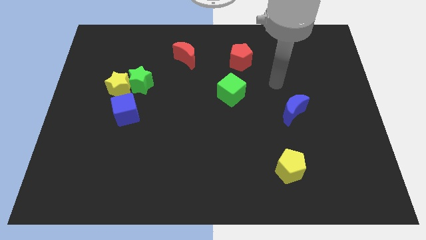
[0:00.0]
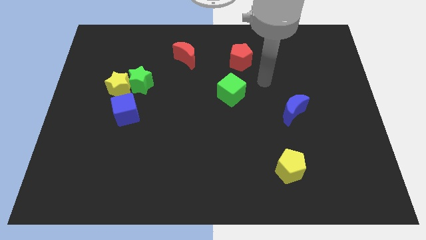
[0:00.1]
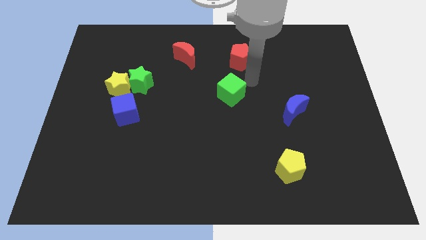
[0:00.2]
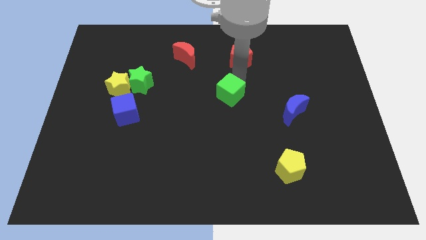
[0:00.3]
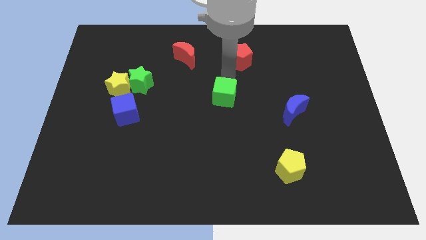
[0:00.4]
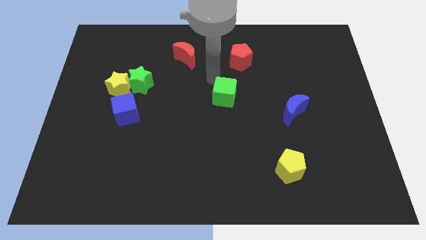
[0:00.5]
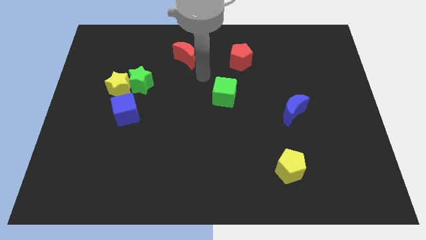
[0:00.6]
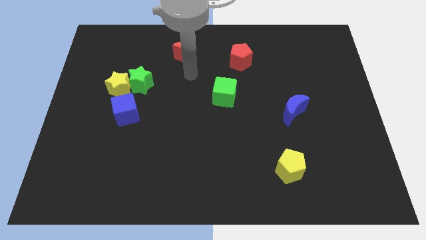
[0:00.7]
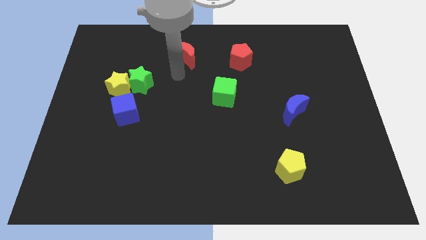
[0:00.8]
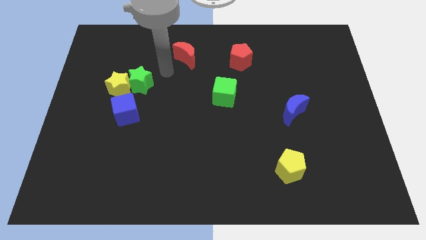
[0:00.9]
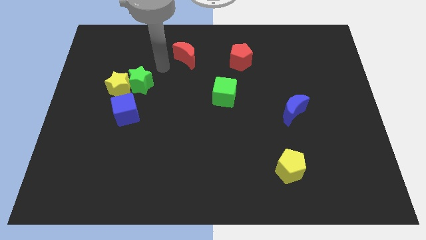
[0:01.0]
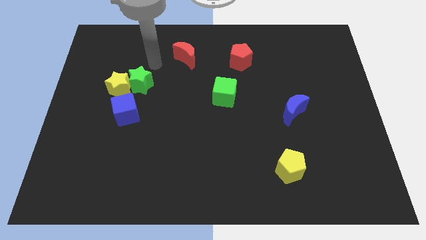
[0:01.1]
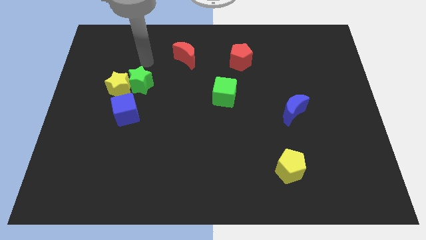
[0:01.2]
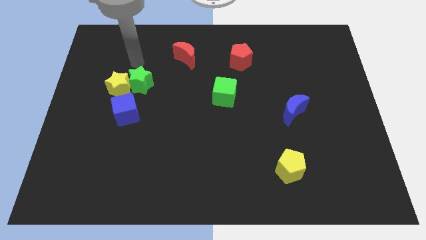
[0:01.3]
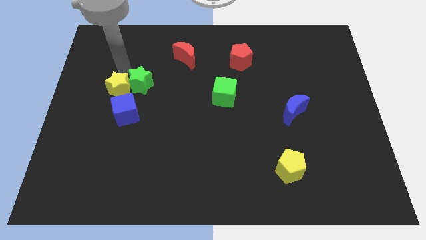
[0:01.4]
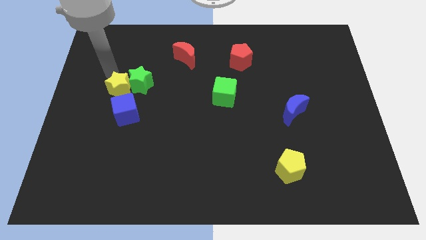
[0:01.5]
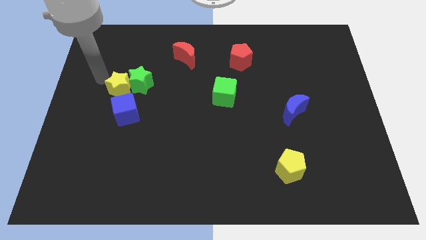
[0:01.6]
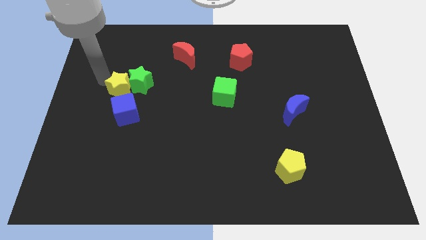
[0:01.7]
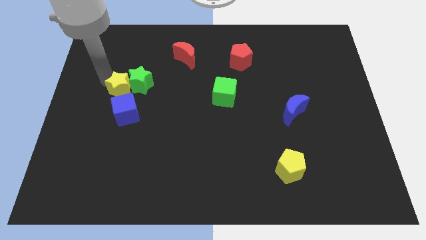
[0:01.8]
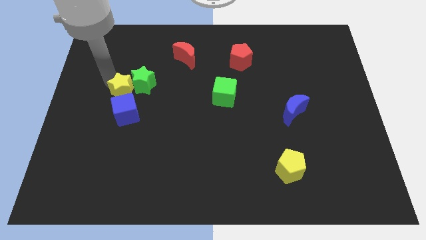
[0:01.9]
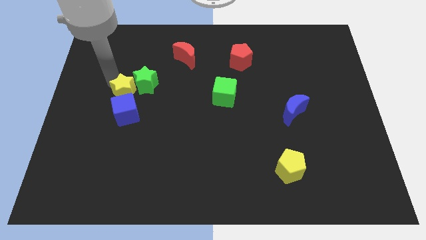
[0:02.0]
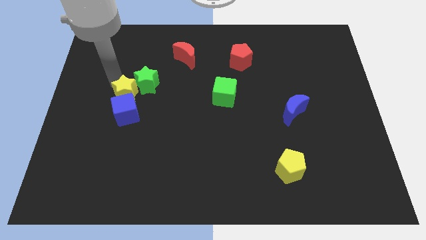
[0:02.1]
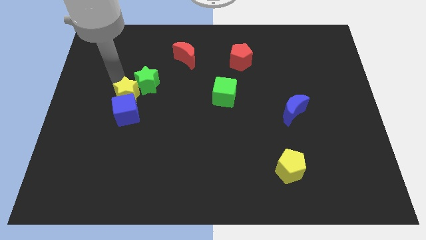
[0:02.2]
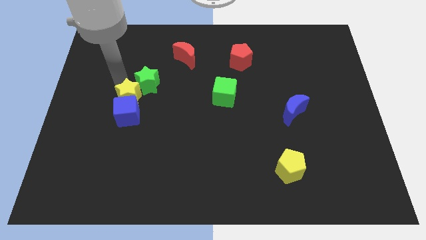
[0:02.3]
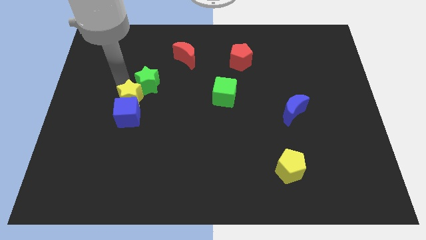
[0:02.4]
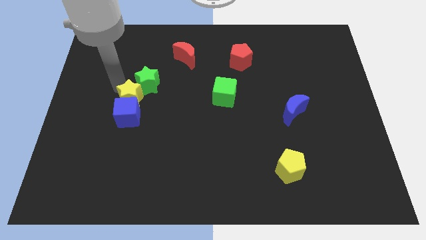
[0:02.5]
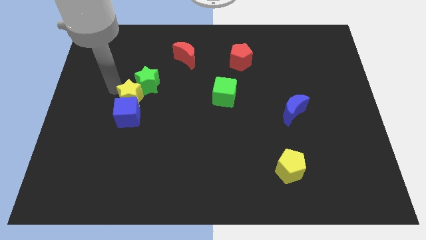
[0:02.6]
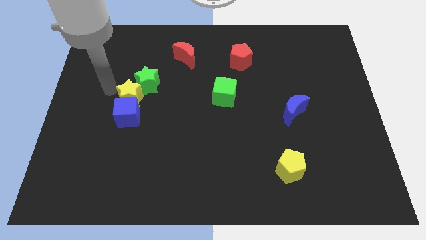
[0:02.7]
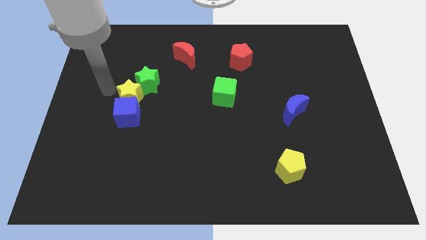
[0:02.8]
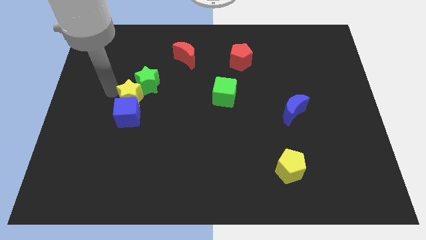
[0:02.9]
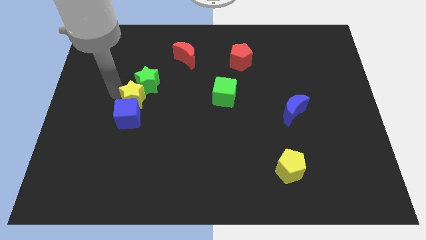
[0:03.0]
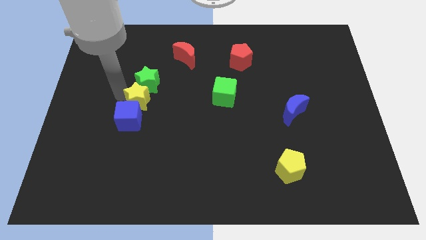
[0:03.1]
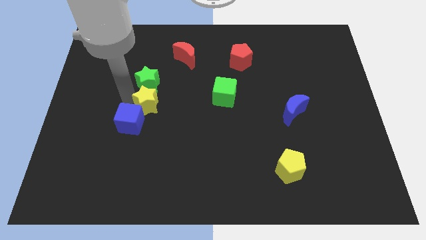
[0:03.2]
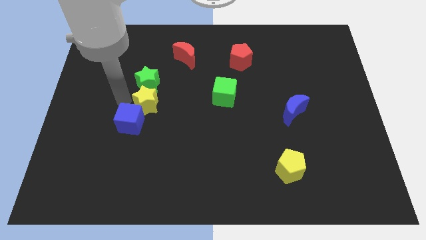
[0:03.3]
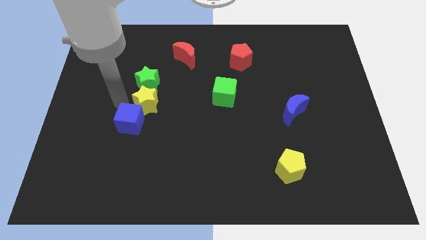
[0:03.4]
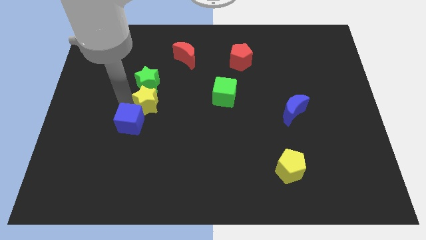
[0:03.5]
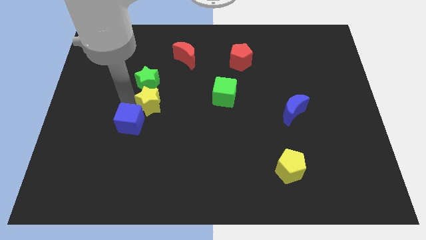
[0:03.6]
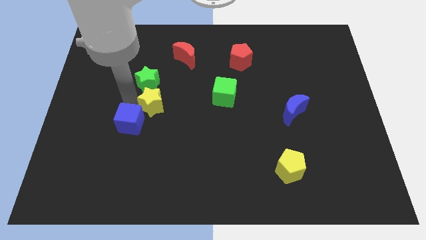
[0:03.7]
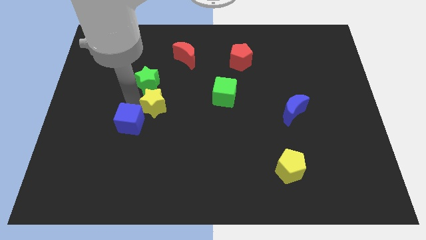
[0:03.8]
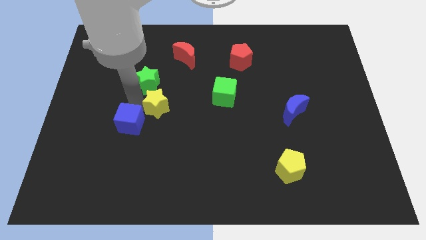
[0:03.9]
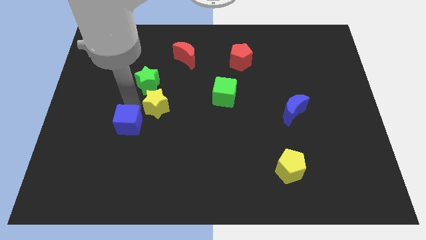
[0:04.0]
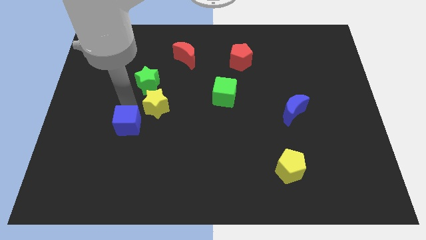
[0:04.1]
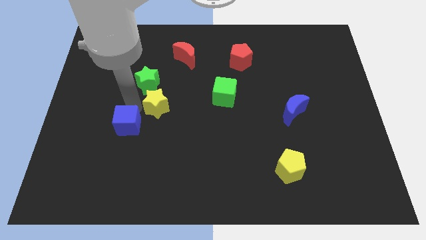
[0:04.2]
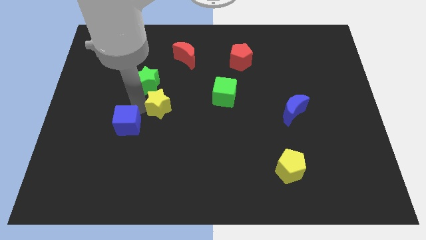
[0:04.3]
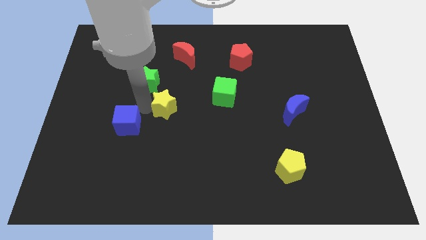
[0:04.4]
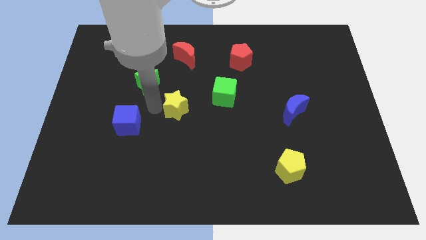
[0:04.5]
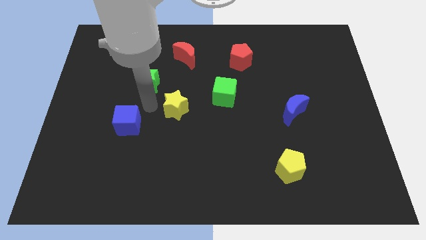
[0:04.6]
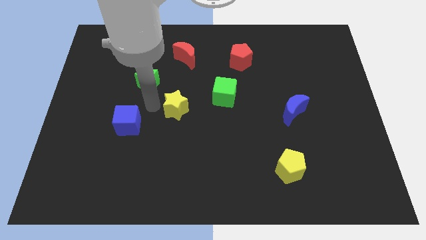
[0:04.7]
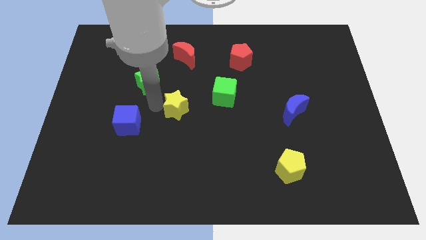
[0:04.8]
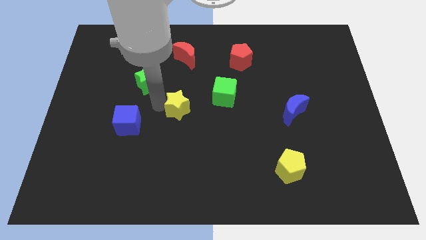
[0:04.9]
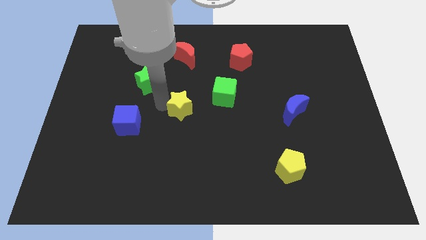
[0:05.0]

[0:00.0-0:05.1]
slide the yellow star to the bottom left of the green cube

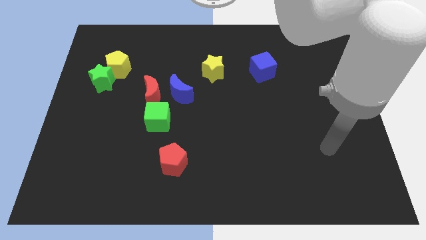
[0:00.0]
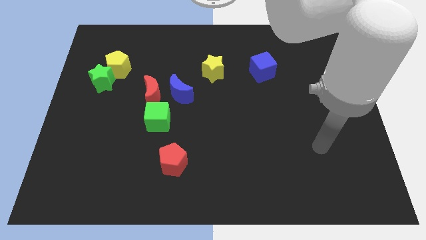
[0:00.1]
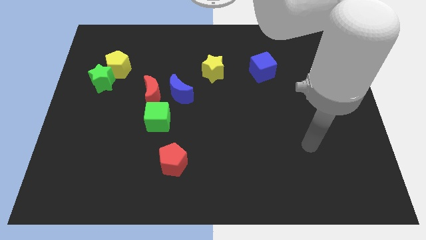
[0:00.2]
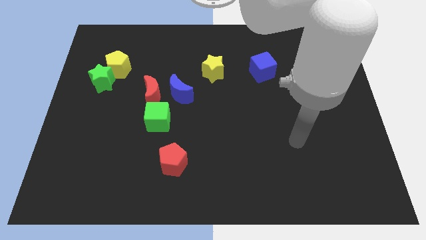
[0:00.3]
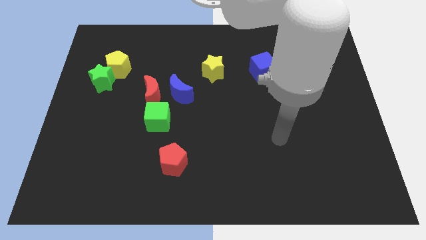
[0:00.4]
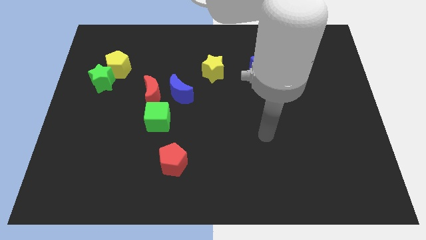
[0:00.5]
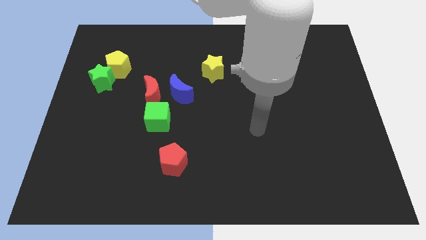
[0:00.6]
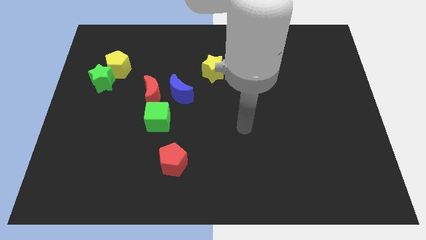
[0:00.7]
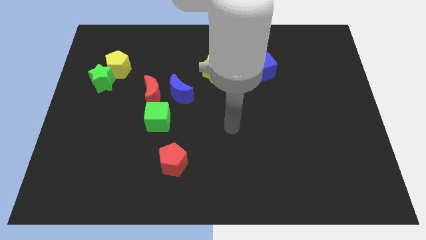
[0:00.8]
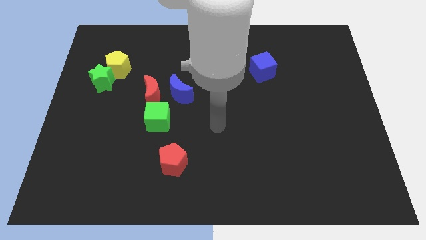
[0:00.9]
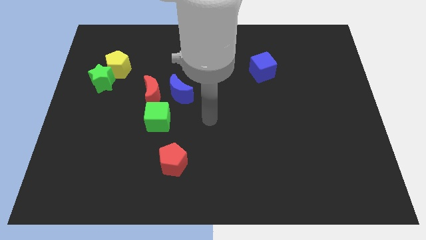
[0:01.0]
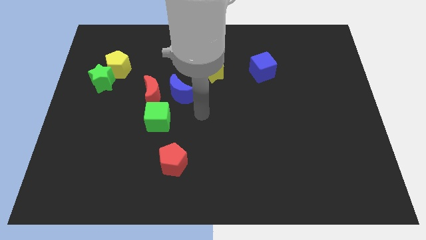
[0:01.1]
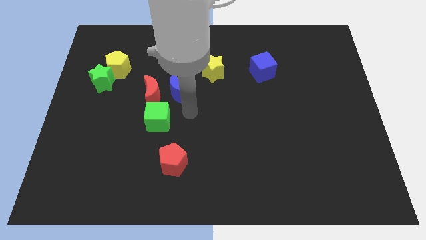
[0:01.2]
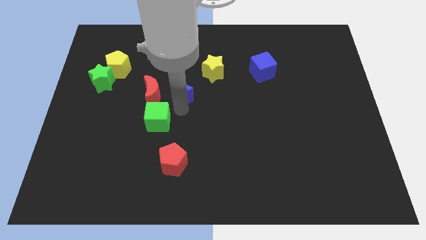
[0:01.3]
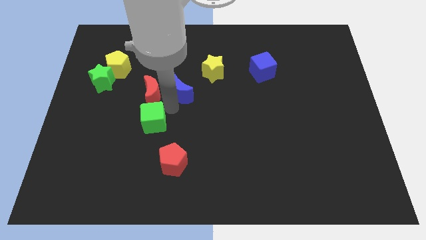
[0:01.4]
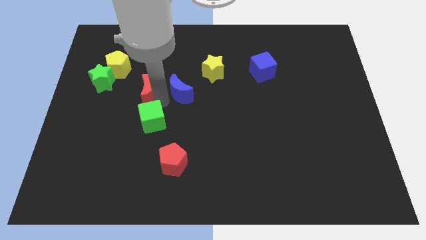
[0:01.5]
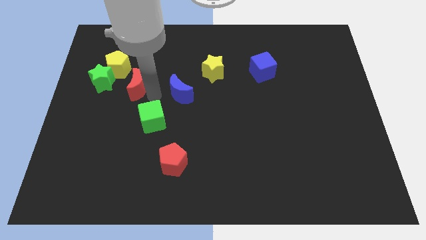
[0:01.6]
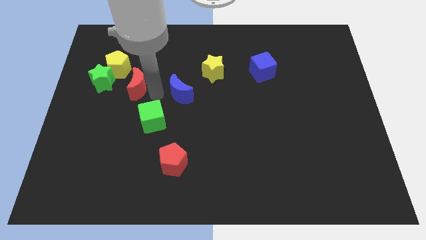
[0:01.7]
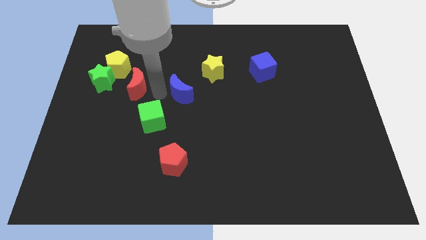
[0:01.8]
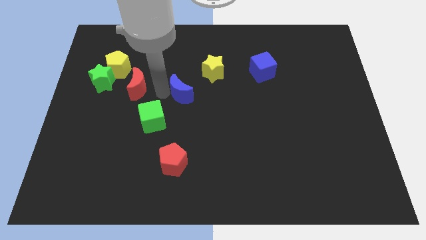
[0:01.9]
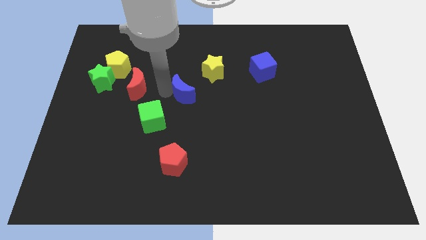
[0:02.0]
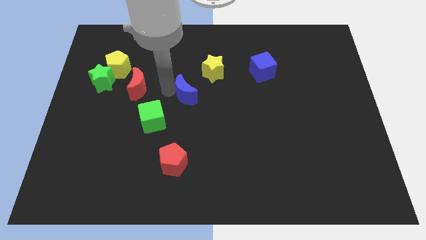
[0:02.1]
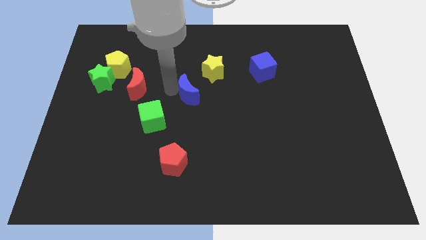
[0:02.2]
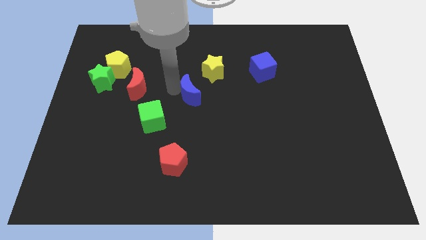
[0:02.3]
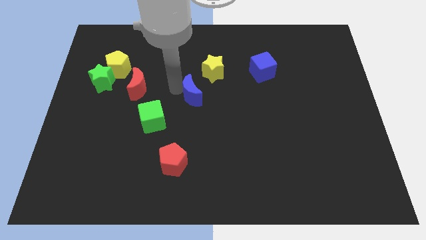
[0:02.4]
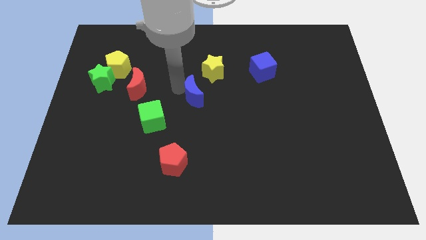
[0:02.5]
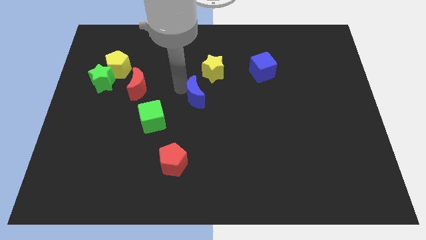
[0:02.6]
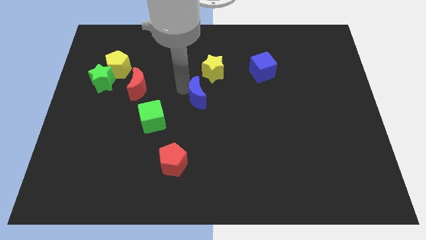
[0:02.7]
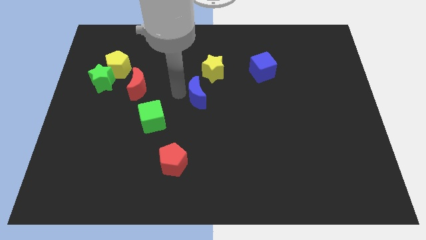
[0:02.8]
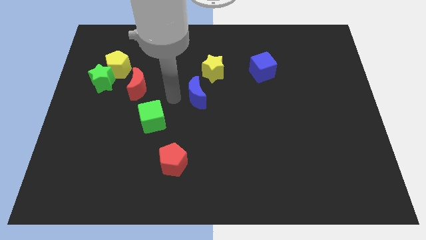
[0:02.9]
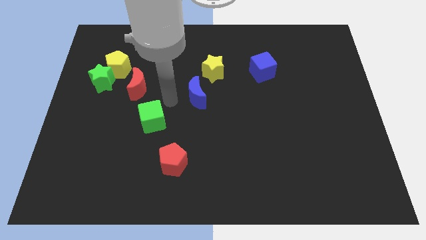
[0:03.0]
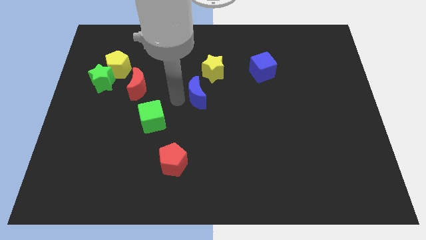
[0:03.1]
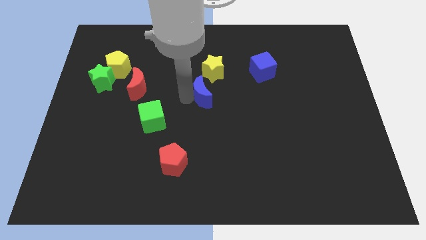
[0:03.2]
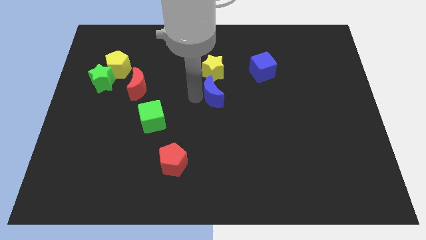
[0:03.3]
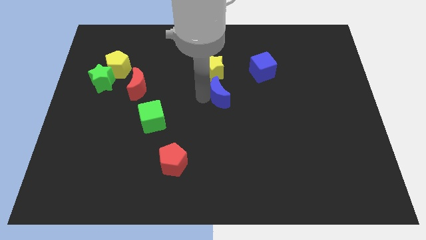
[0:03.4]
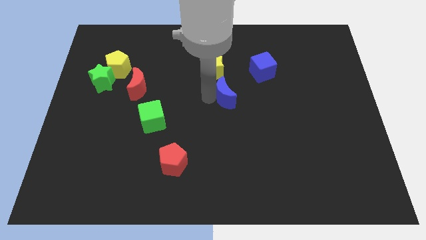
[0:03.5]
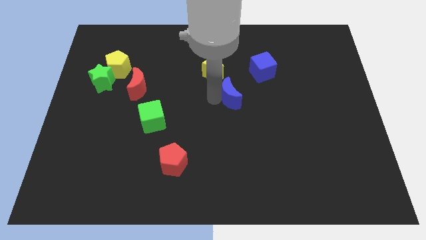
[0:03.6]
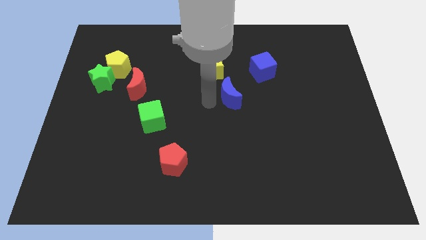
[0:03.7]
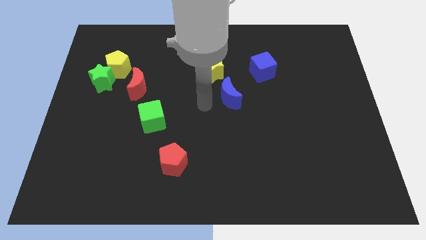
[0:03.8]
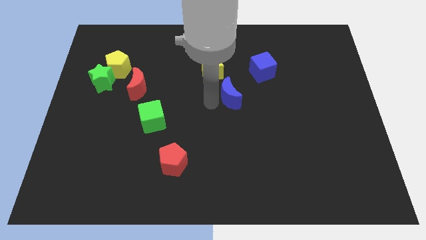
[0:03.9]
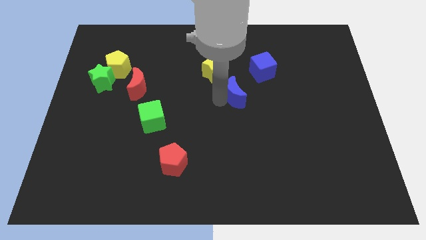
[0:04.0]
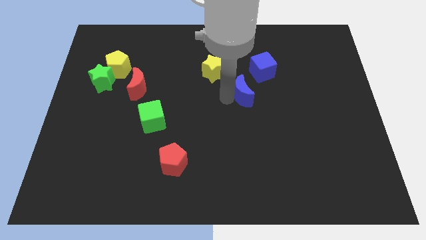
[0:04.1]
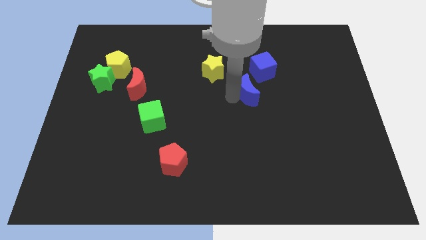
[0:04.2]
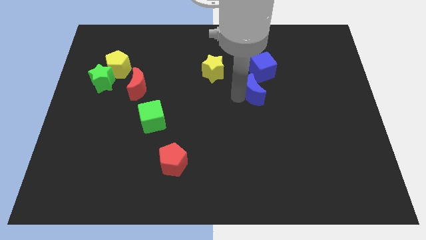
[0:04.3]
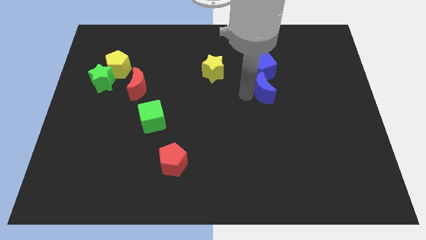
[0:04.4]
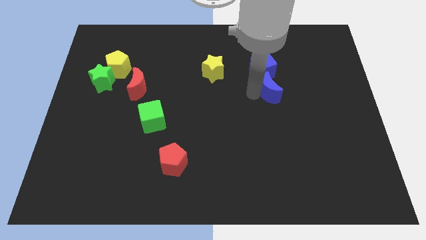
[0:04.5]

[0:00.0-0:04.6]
slide the blue moon to the bottom right of the blue cube
